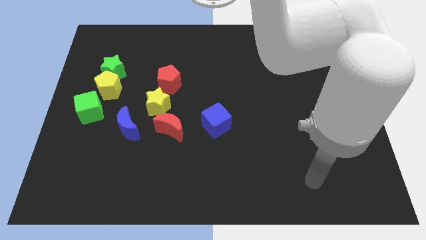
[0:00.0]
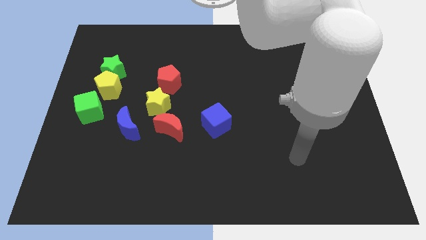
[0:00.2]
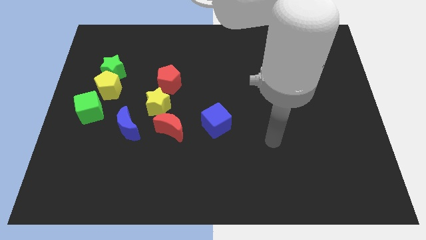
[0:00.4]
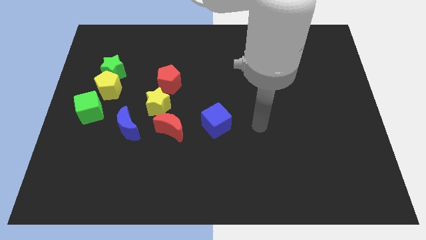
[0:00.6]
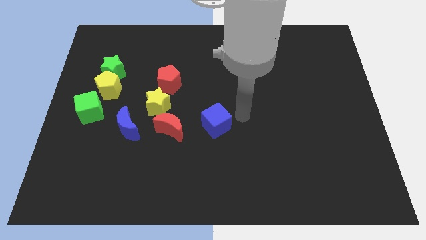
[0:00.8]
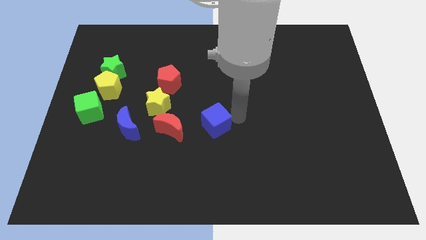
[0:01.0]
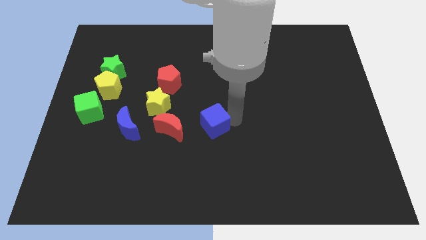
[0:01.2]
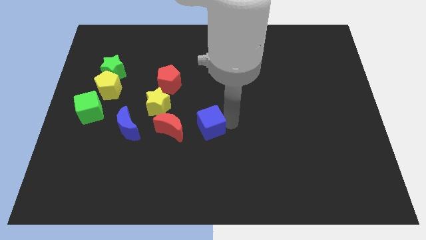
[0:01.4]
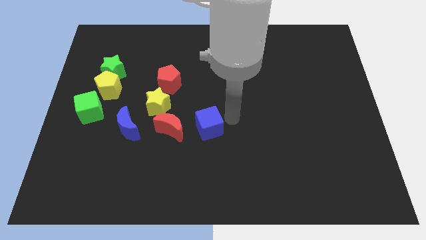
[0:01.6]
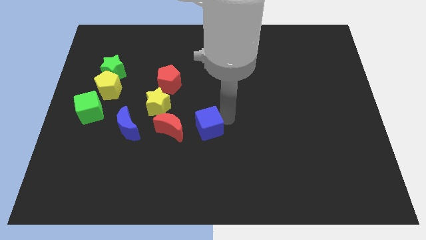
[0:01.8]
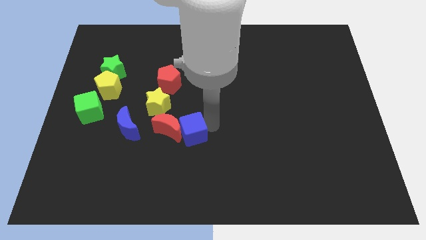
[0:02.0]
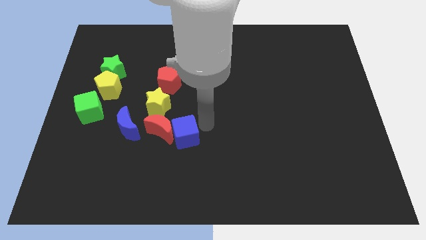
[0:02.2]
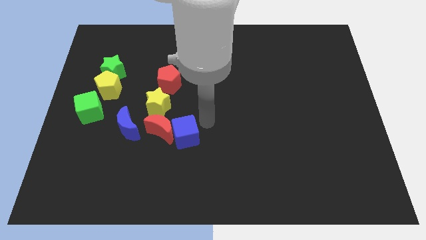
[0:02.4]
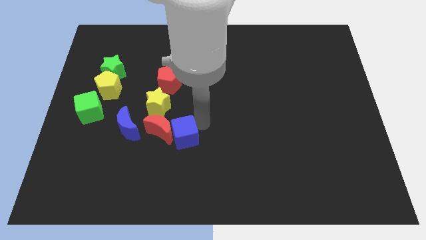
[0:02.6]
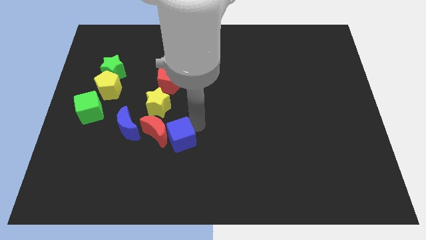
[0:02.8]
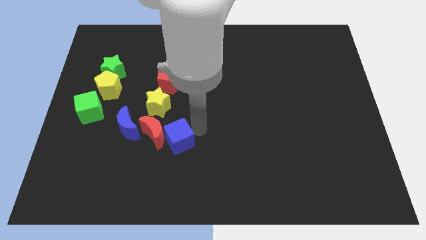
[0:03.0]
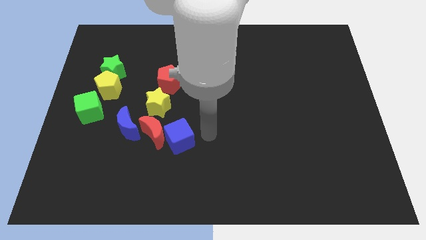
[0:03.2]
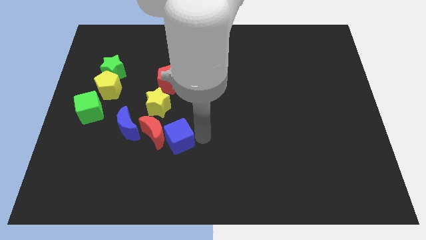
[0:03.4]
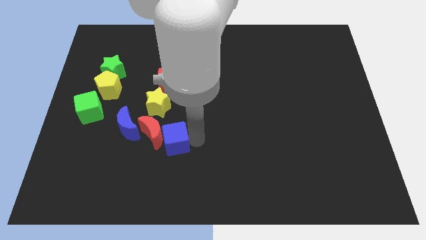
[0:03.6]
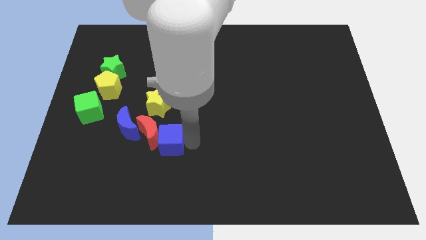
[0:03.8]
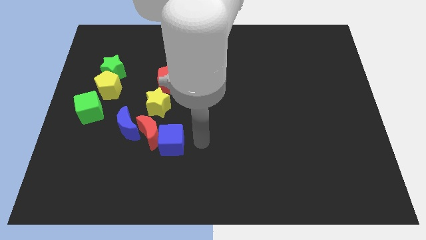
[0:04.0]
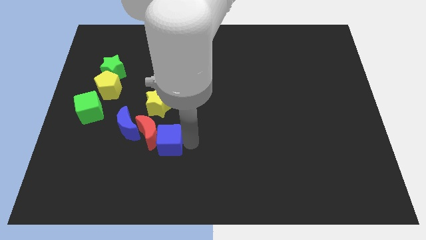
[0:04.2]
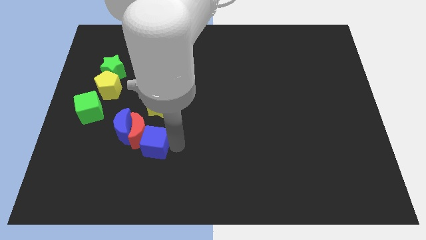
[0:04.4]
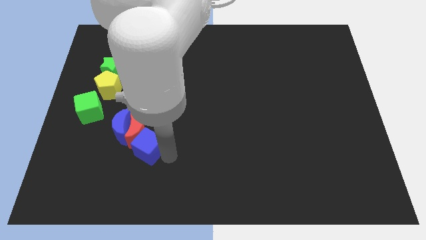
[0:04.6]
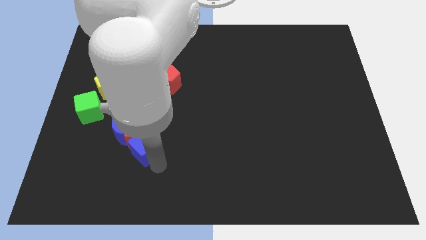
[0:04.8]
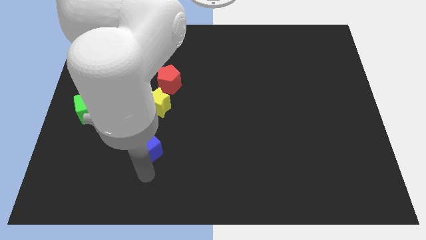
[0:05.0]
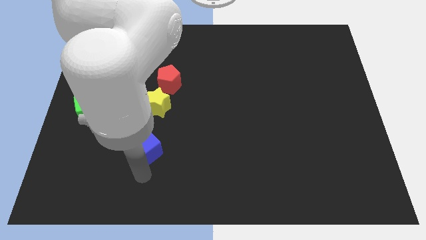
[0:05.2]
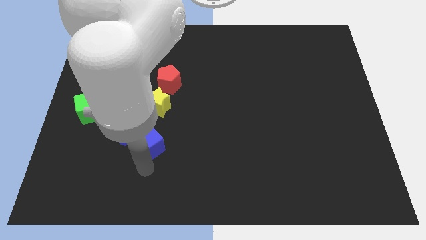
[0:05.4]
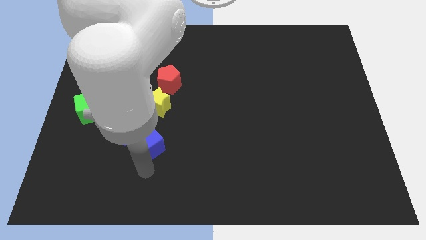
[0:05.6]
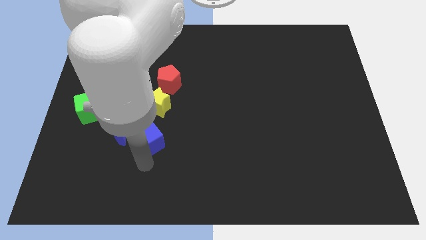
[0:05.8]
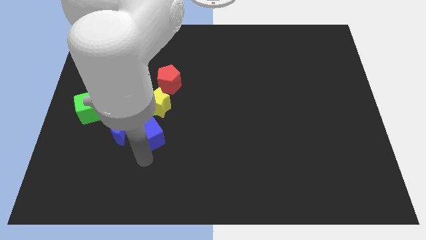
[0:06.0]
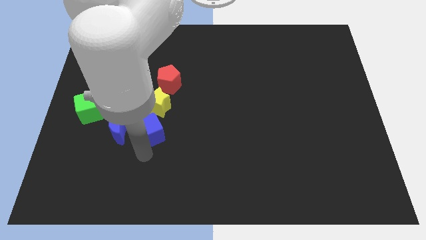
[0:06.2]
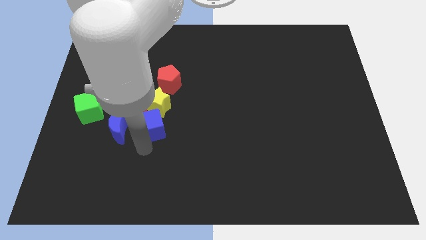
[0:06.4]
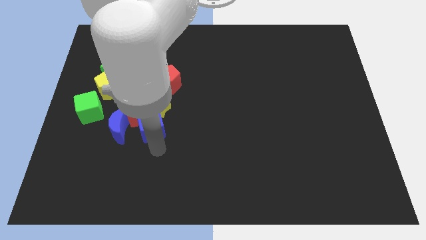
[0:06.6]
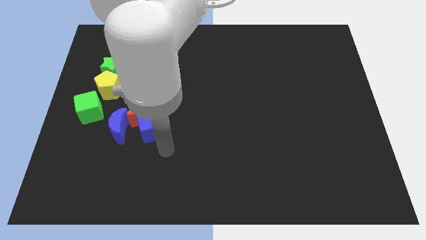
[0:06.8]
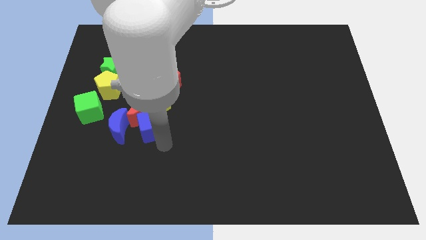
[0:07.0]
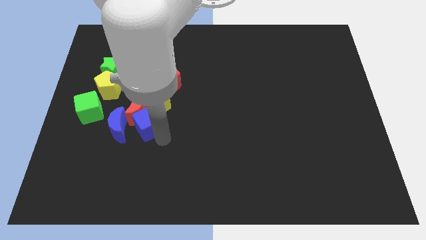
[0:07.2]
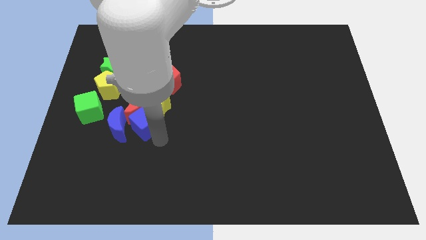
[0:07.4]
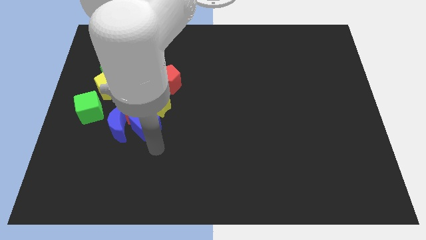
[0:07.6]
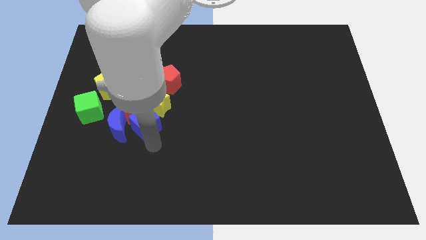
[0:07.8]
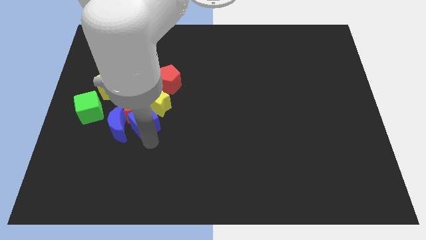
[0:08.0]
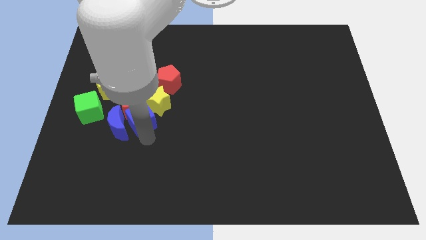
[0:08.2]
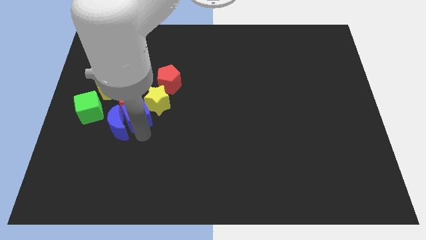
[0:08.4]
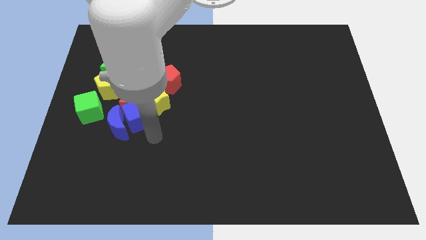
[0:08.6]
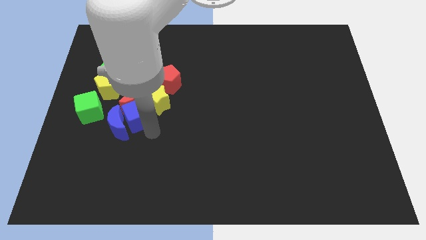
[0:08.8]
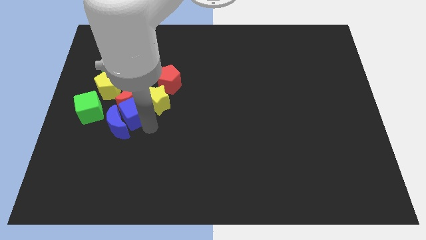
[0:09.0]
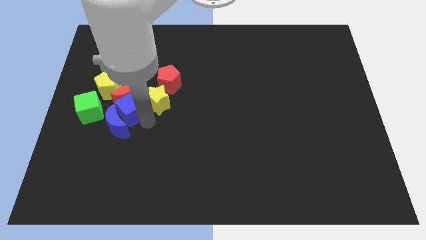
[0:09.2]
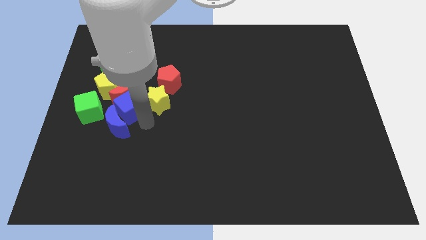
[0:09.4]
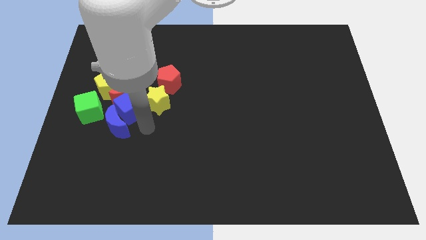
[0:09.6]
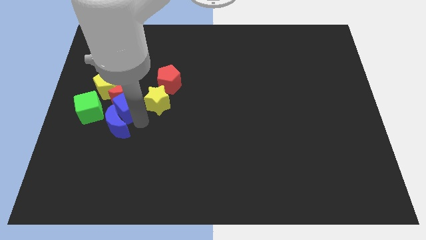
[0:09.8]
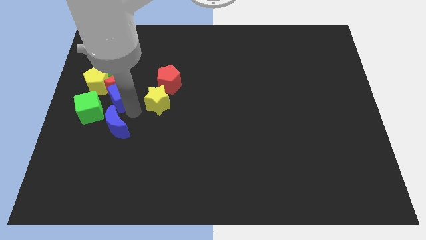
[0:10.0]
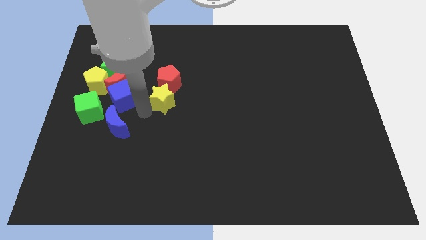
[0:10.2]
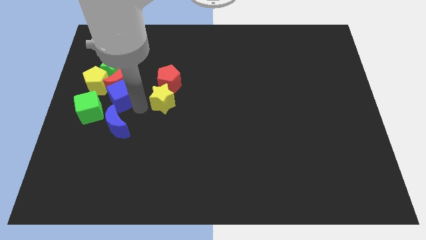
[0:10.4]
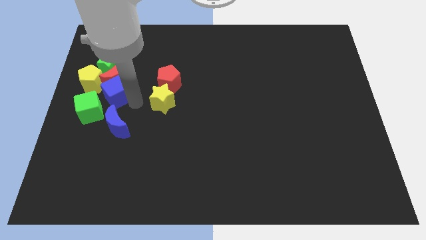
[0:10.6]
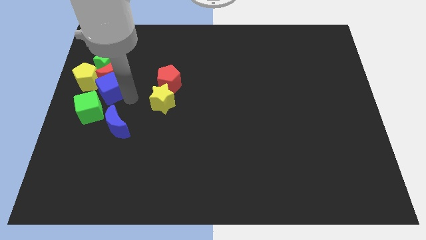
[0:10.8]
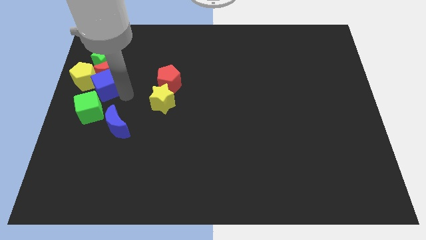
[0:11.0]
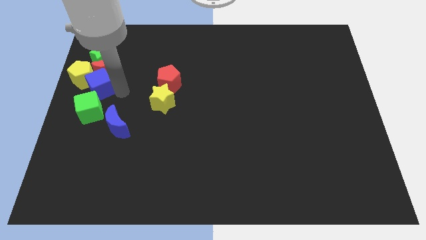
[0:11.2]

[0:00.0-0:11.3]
move the blue cube close to the yellow pentagon

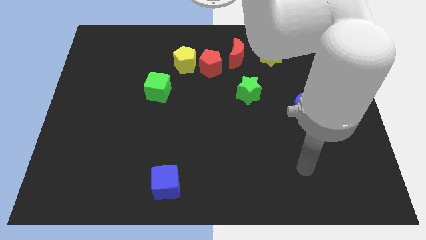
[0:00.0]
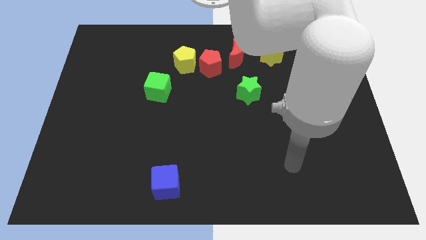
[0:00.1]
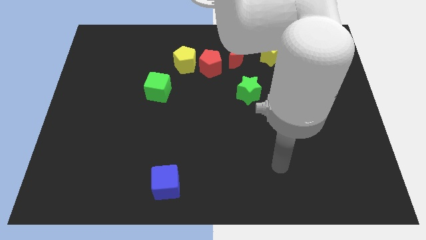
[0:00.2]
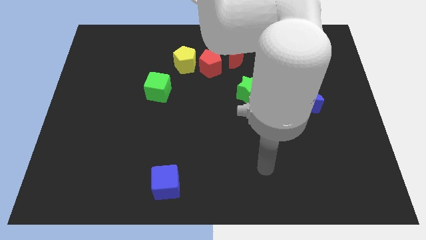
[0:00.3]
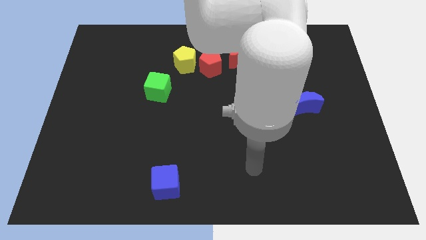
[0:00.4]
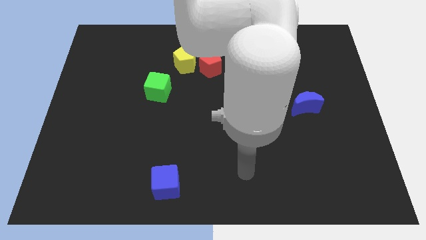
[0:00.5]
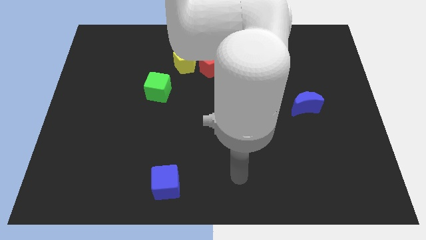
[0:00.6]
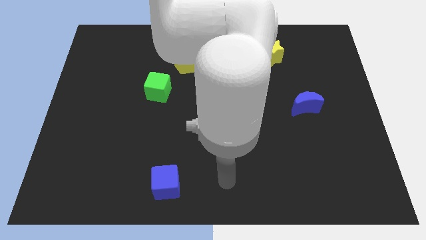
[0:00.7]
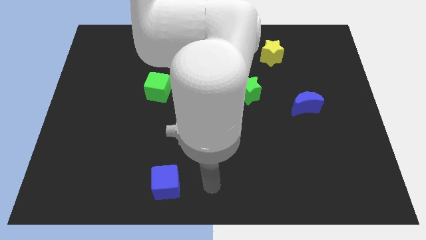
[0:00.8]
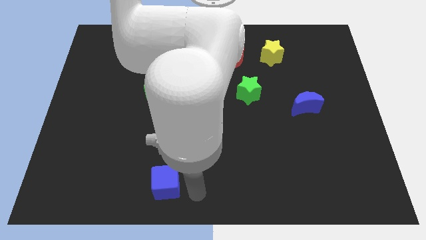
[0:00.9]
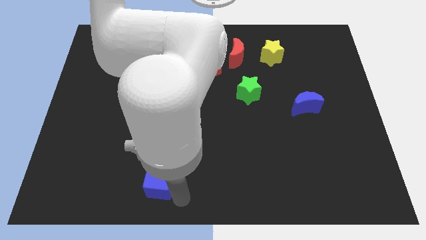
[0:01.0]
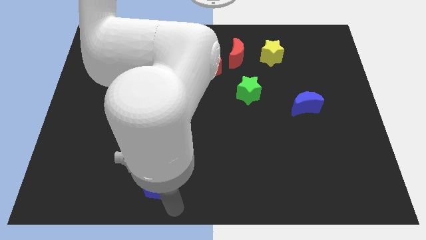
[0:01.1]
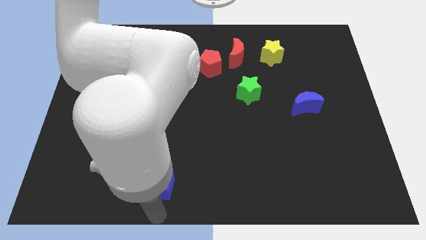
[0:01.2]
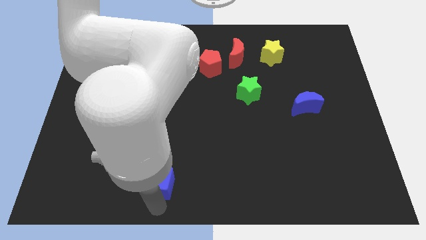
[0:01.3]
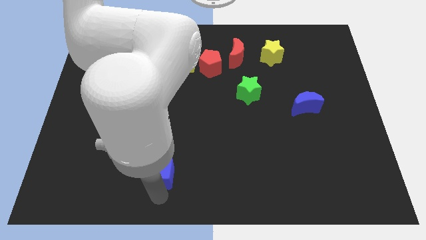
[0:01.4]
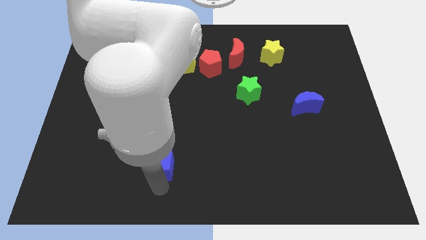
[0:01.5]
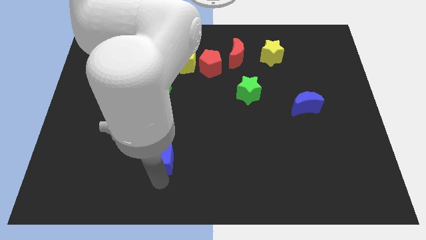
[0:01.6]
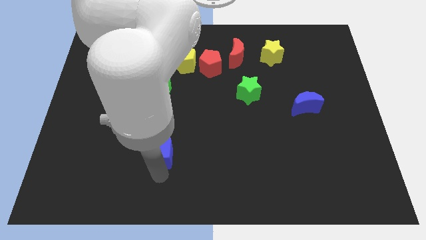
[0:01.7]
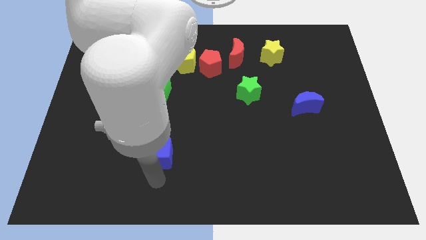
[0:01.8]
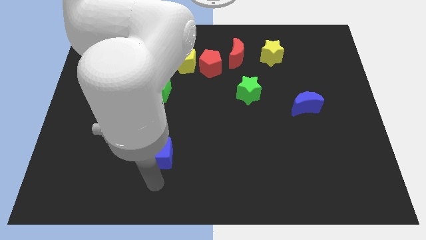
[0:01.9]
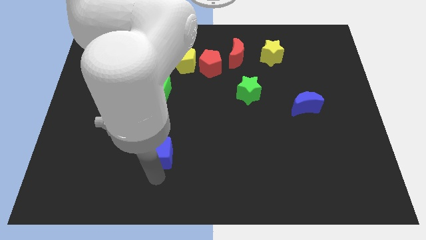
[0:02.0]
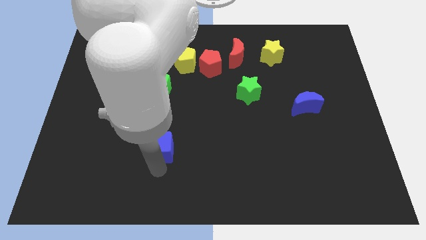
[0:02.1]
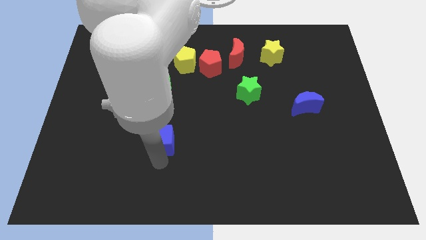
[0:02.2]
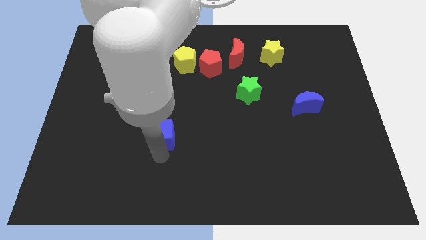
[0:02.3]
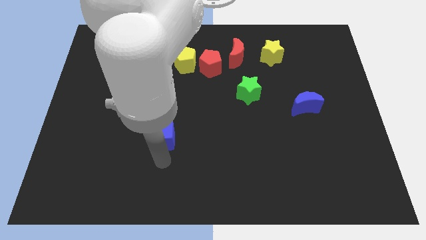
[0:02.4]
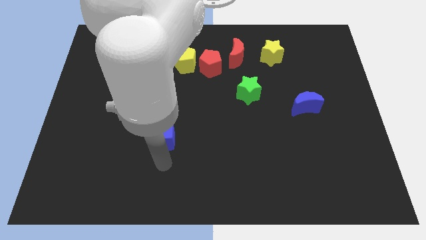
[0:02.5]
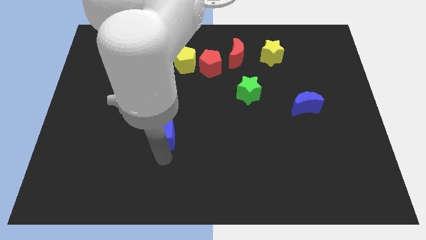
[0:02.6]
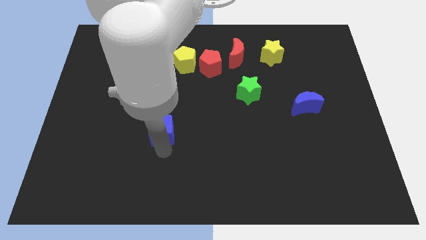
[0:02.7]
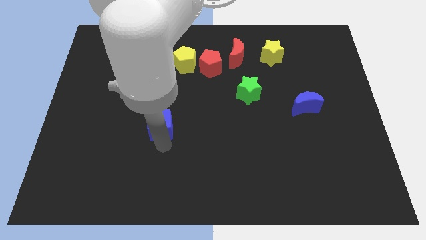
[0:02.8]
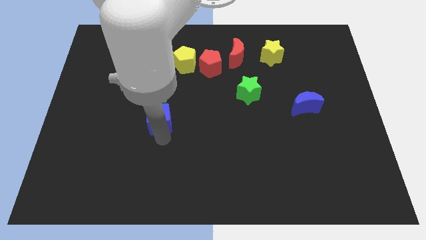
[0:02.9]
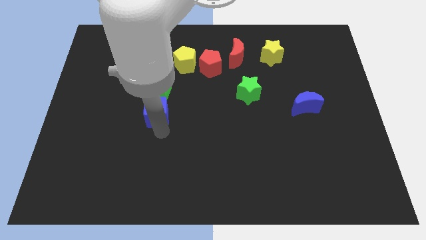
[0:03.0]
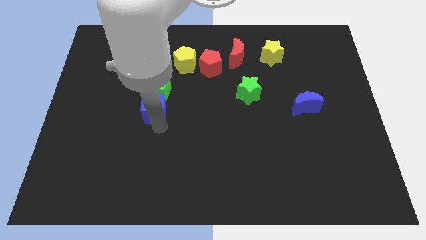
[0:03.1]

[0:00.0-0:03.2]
put the blue cube close to the green cube
